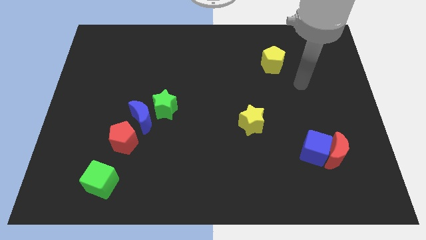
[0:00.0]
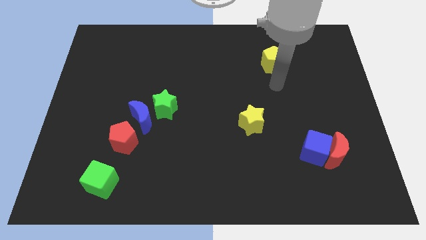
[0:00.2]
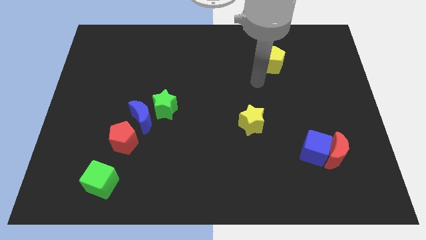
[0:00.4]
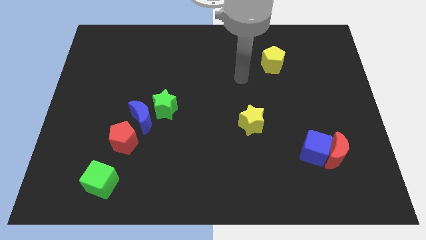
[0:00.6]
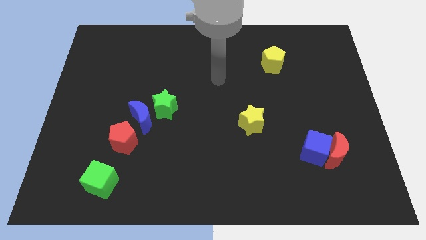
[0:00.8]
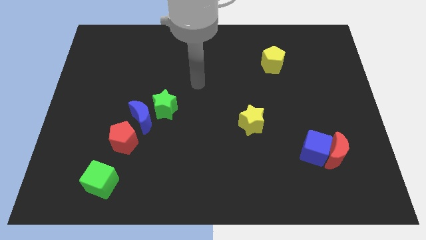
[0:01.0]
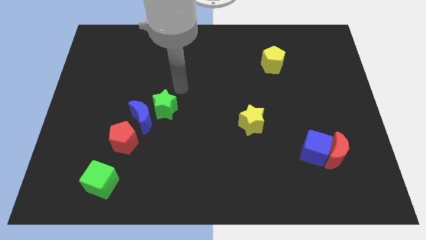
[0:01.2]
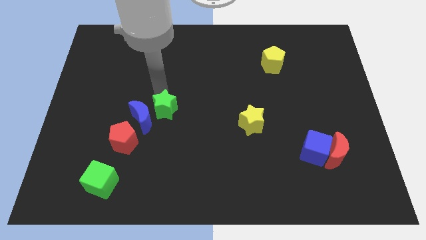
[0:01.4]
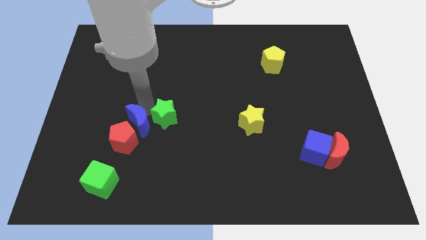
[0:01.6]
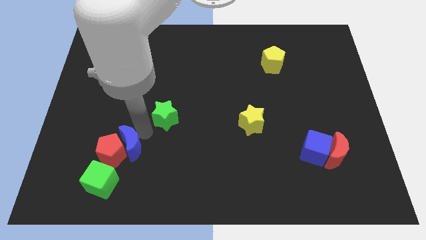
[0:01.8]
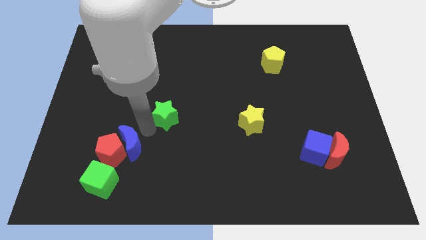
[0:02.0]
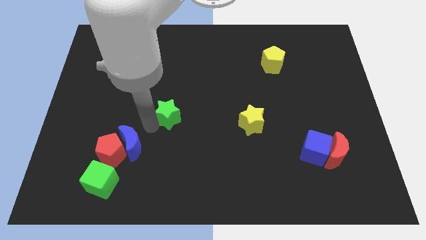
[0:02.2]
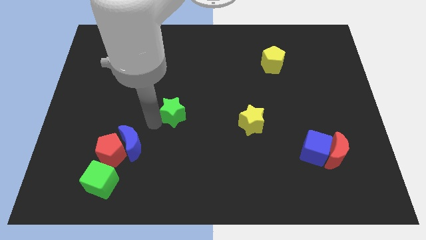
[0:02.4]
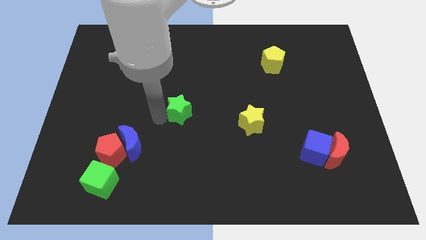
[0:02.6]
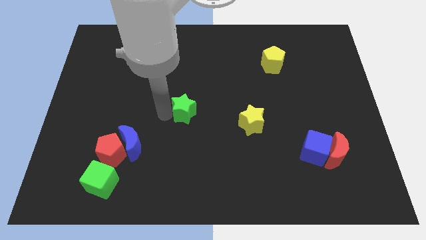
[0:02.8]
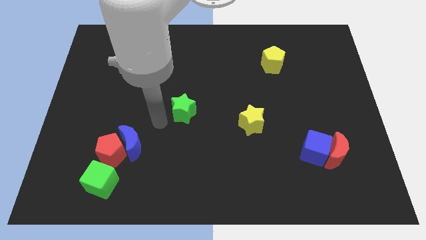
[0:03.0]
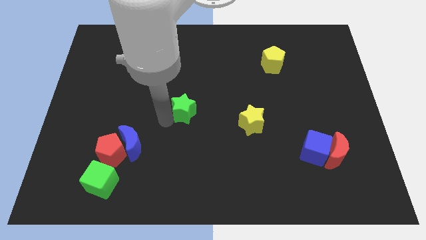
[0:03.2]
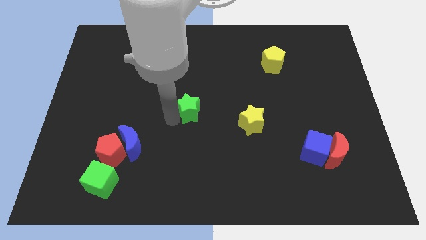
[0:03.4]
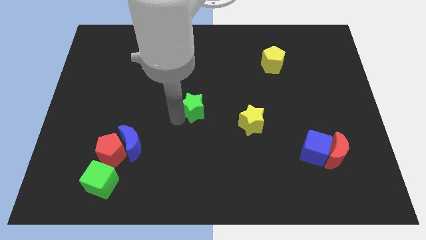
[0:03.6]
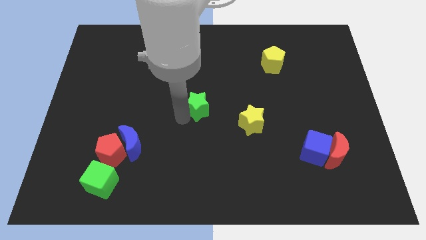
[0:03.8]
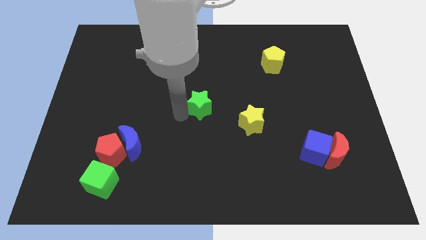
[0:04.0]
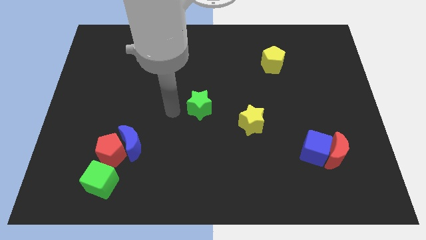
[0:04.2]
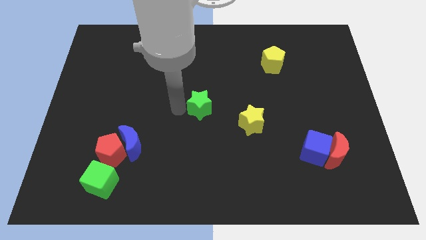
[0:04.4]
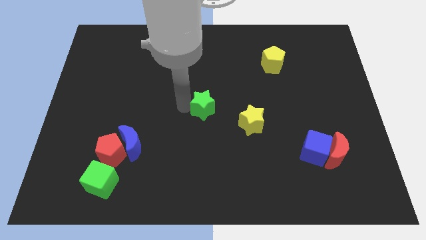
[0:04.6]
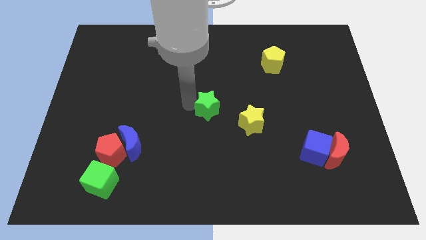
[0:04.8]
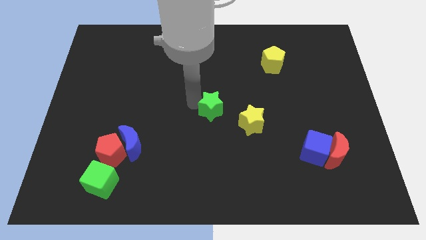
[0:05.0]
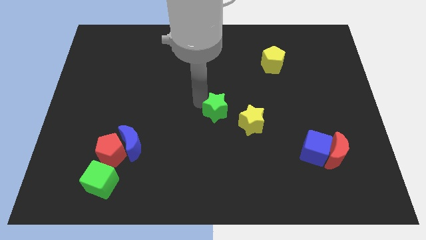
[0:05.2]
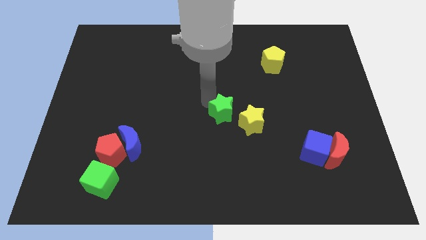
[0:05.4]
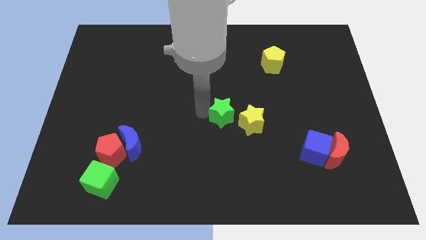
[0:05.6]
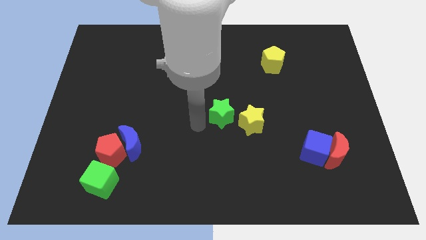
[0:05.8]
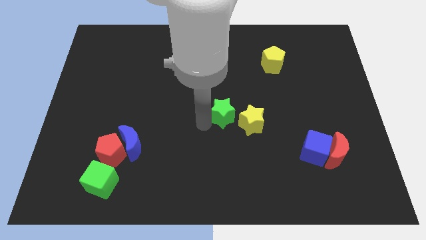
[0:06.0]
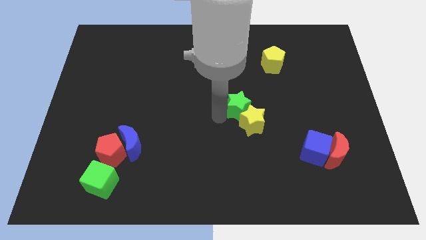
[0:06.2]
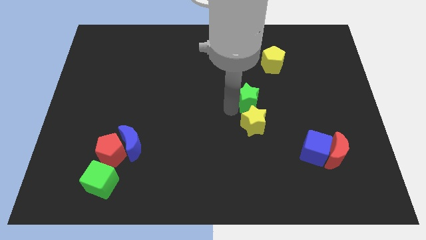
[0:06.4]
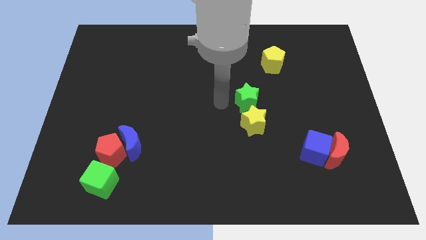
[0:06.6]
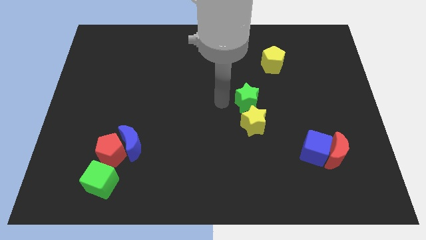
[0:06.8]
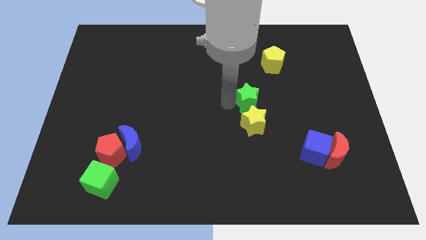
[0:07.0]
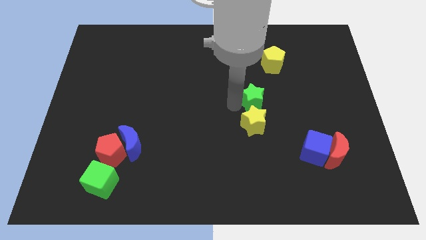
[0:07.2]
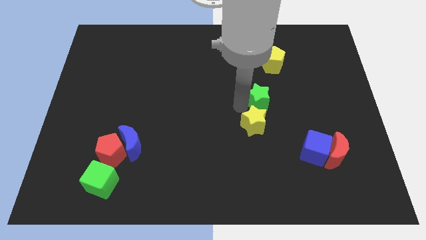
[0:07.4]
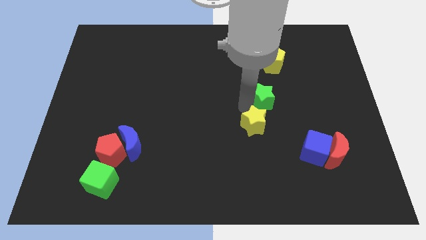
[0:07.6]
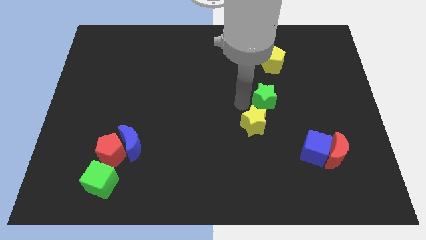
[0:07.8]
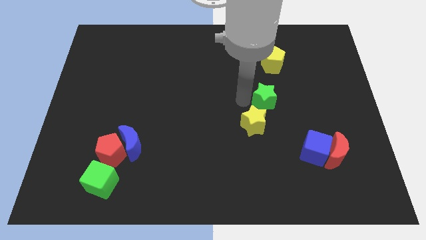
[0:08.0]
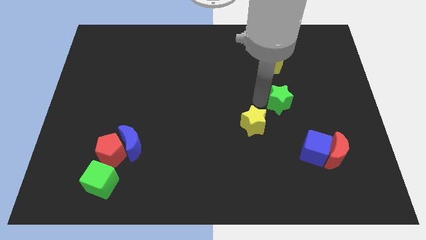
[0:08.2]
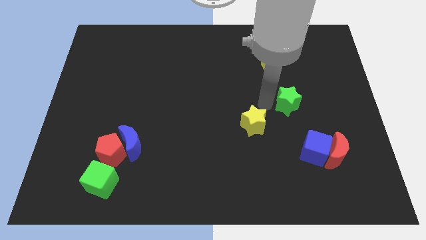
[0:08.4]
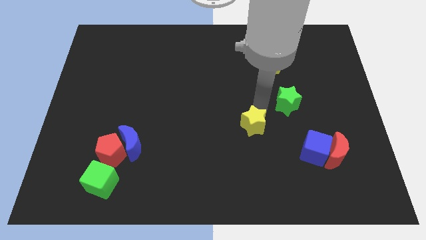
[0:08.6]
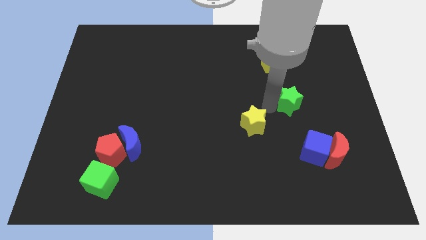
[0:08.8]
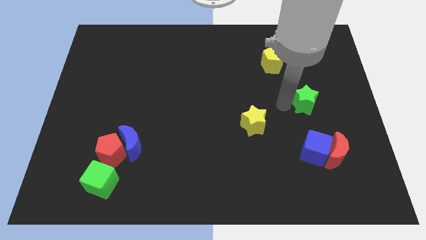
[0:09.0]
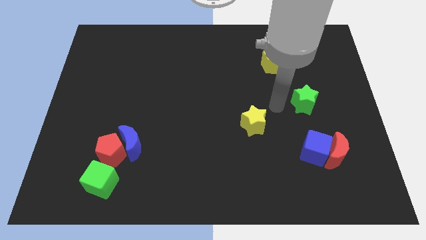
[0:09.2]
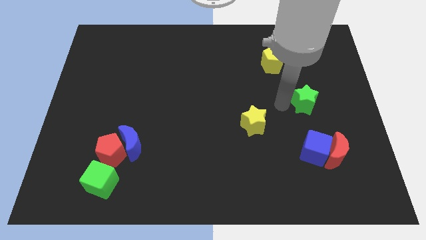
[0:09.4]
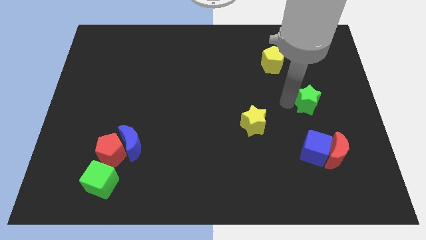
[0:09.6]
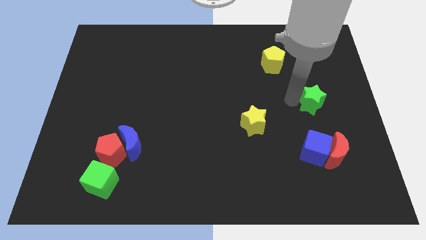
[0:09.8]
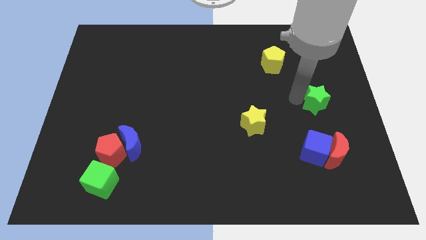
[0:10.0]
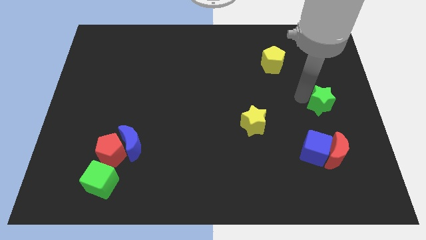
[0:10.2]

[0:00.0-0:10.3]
put the green star to the right side

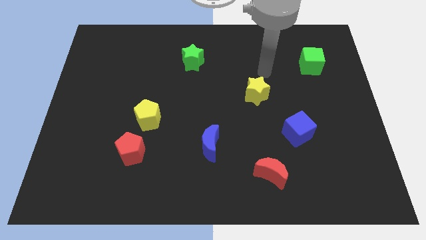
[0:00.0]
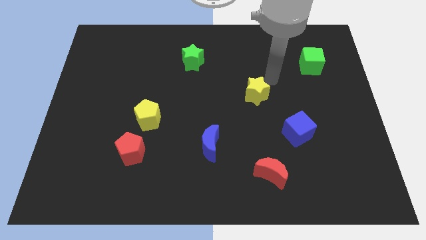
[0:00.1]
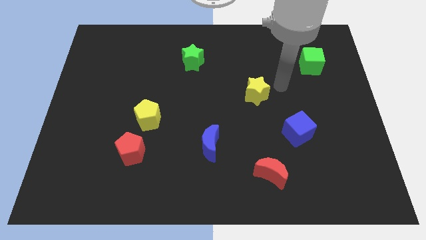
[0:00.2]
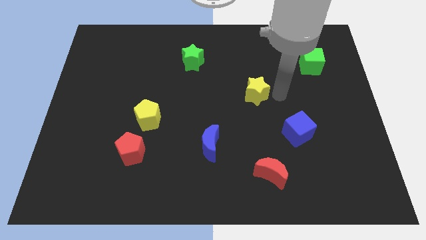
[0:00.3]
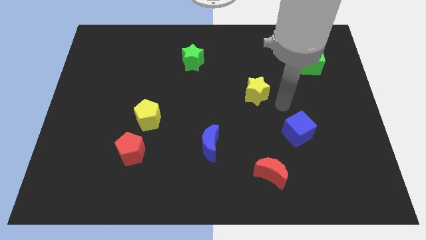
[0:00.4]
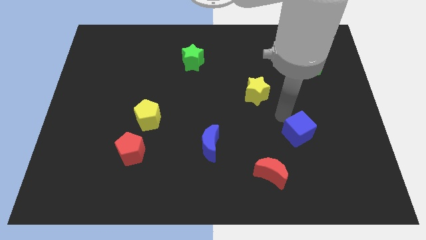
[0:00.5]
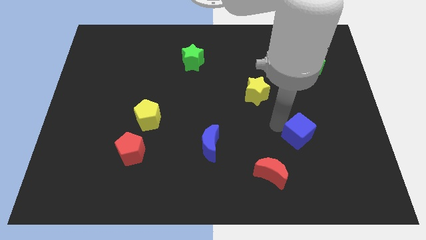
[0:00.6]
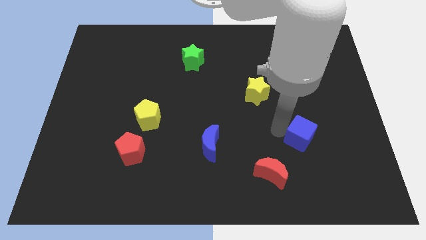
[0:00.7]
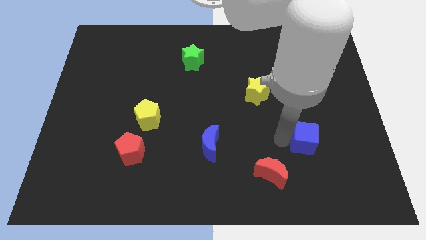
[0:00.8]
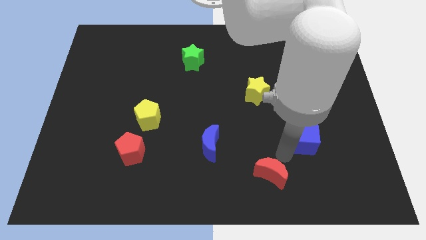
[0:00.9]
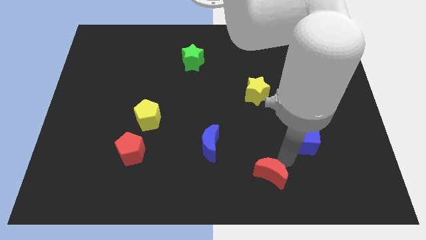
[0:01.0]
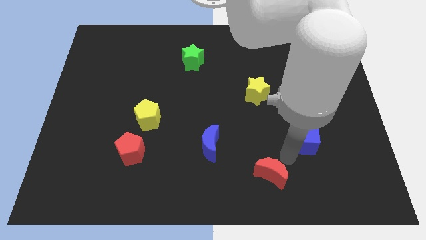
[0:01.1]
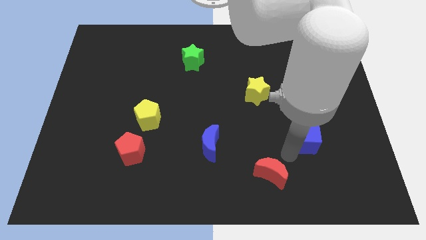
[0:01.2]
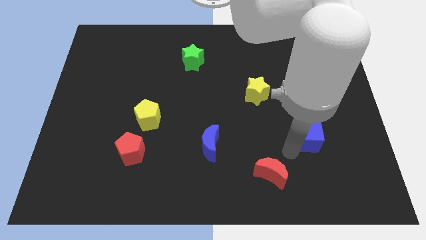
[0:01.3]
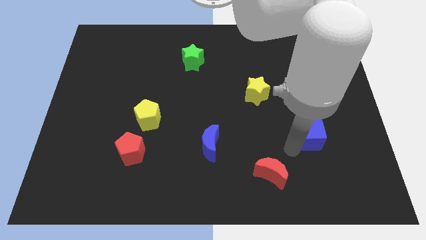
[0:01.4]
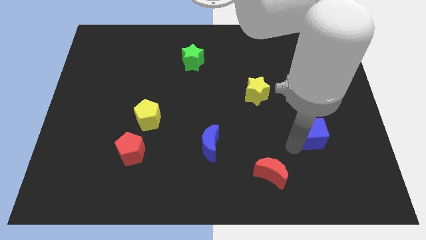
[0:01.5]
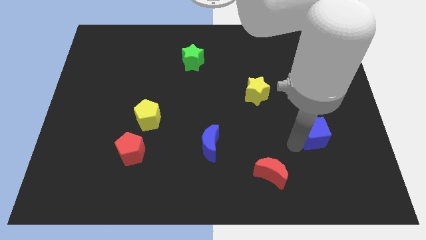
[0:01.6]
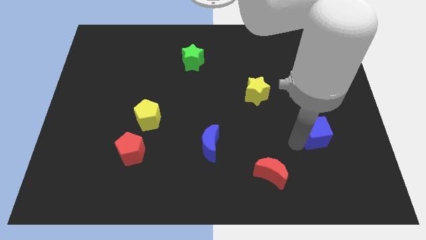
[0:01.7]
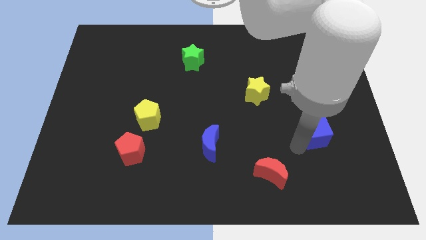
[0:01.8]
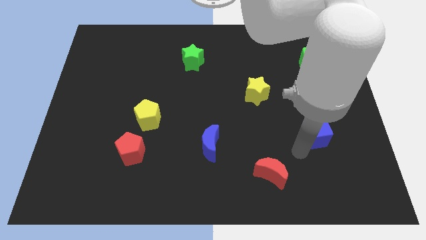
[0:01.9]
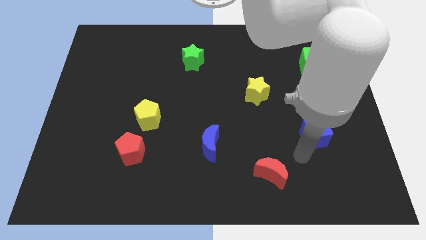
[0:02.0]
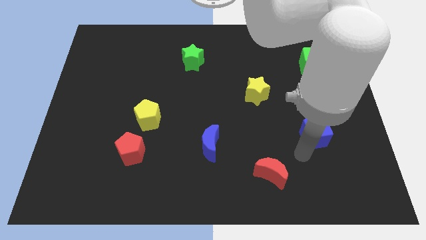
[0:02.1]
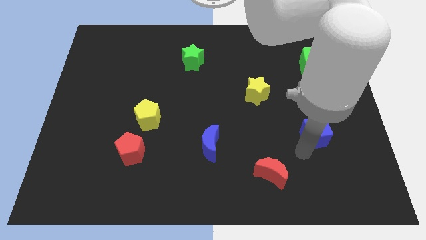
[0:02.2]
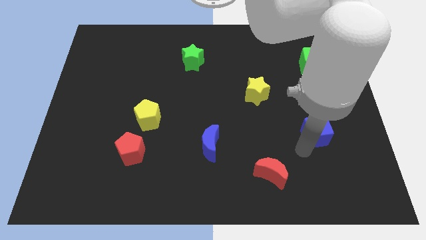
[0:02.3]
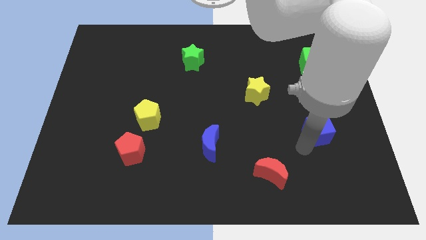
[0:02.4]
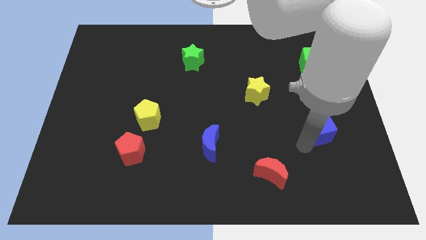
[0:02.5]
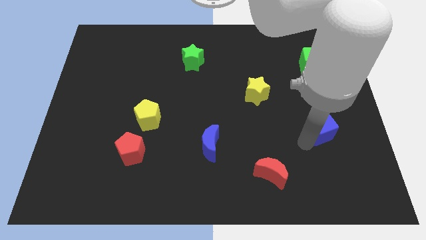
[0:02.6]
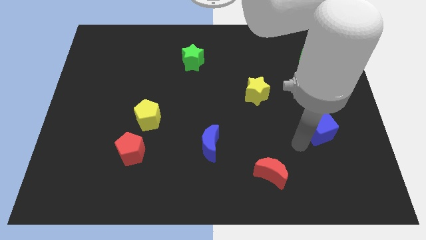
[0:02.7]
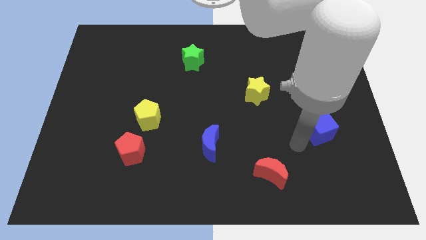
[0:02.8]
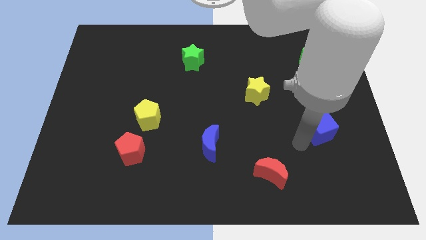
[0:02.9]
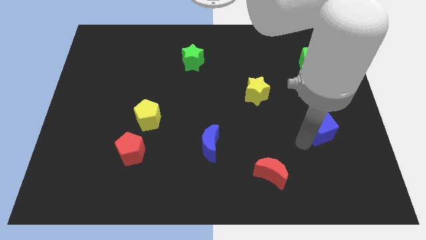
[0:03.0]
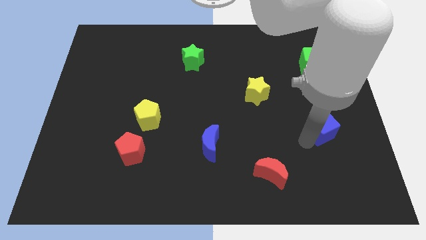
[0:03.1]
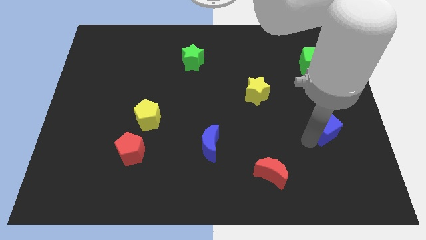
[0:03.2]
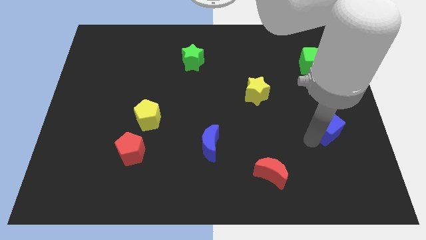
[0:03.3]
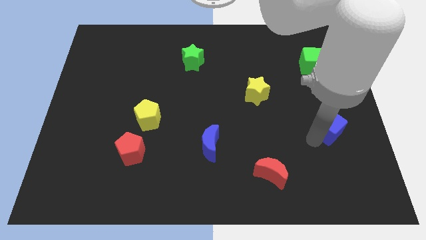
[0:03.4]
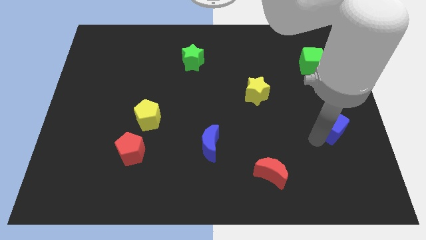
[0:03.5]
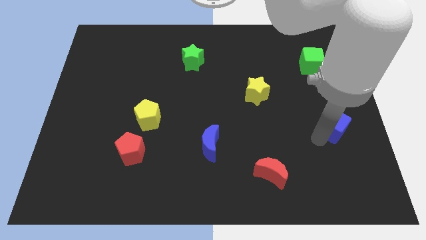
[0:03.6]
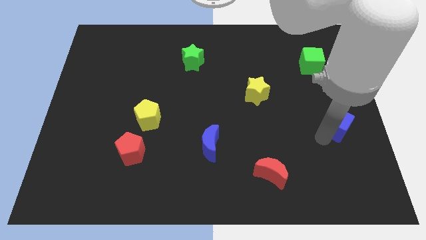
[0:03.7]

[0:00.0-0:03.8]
put the blue cube to the right side
